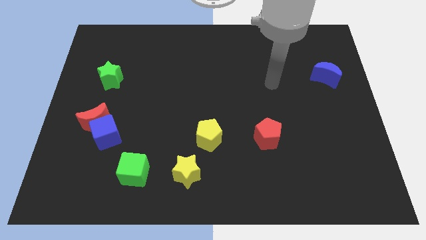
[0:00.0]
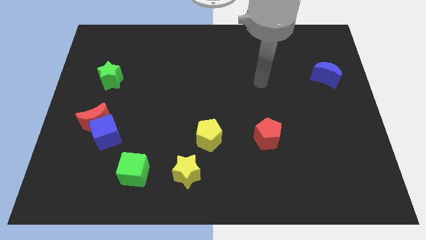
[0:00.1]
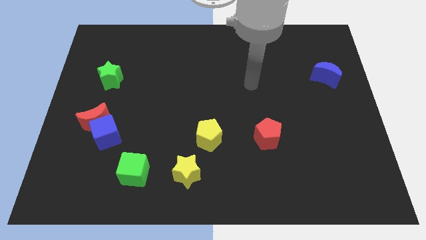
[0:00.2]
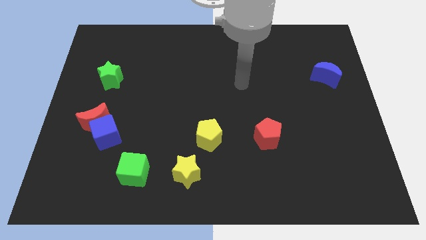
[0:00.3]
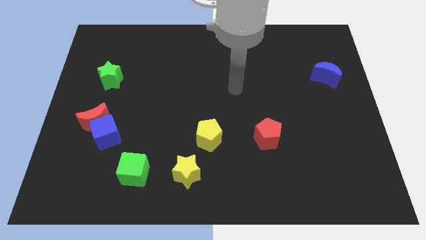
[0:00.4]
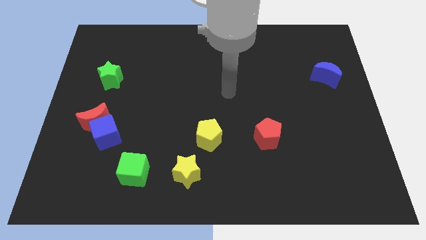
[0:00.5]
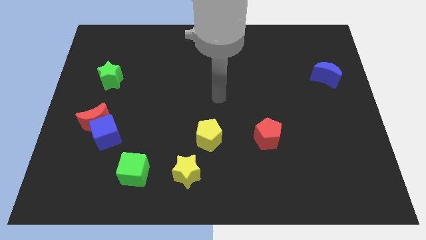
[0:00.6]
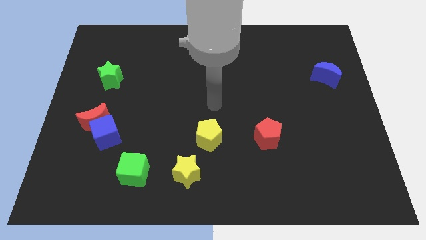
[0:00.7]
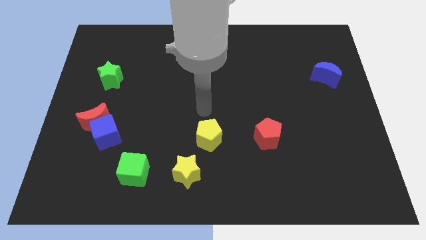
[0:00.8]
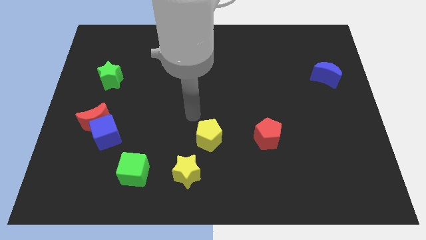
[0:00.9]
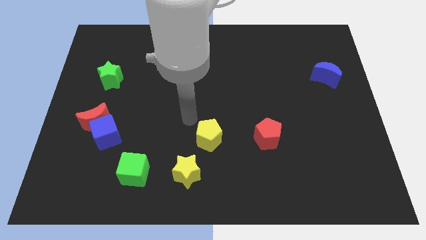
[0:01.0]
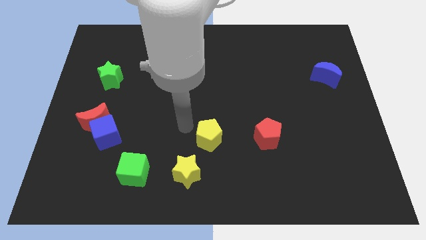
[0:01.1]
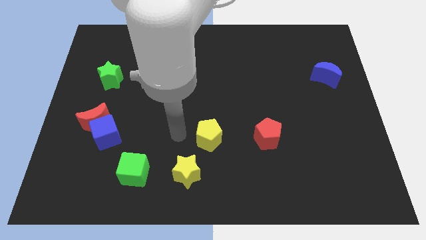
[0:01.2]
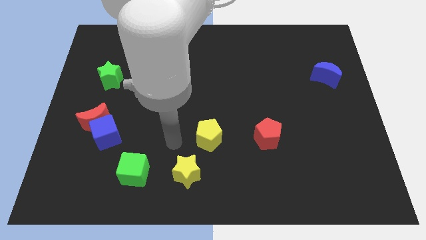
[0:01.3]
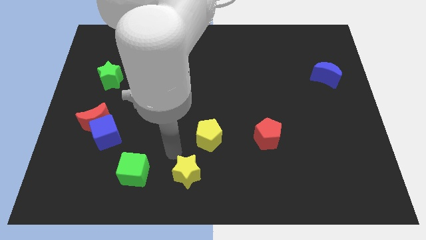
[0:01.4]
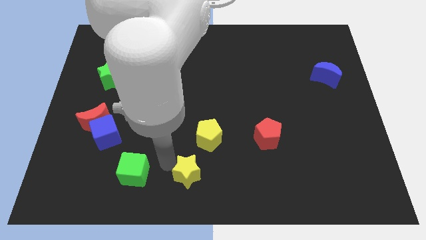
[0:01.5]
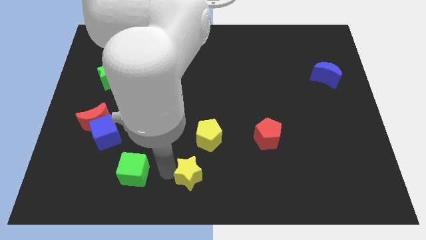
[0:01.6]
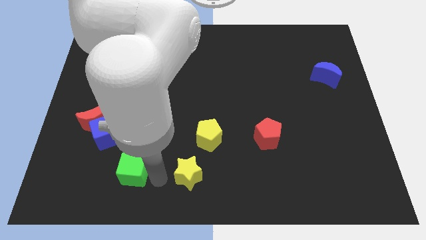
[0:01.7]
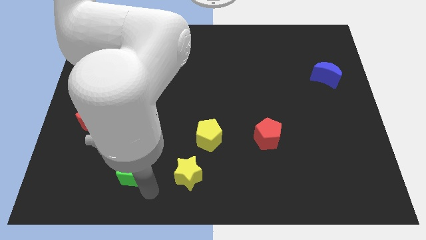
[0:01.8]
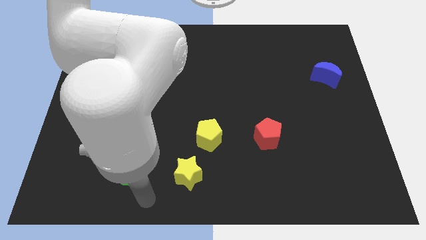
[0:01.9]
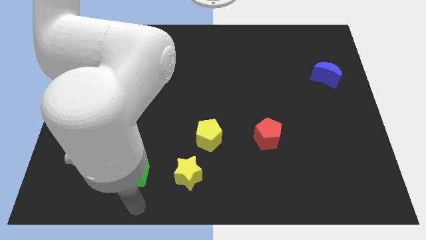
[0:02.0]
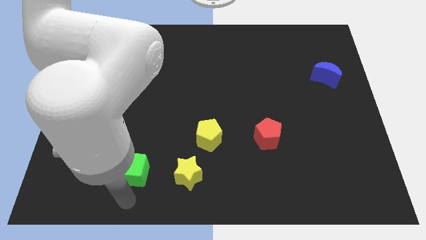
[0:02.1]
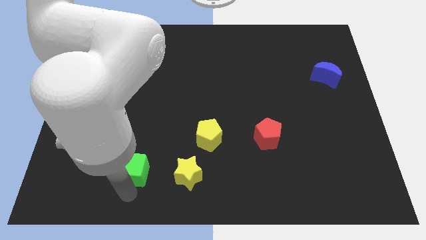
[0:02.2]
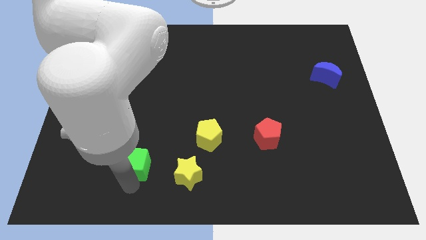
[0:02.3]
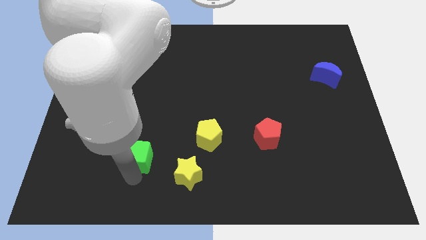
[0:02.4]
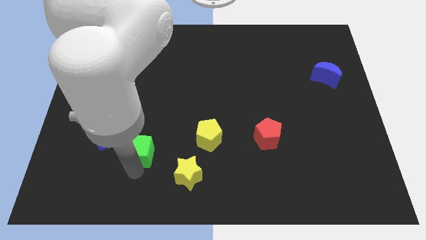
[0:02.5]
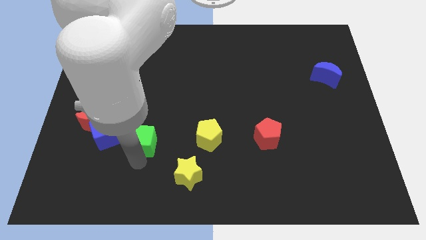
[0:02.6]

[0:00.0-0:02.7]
push the green cube up a bit

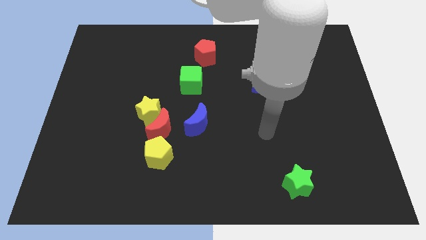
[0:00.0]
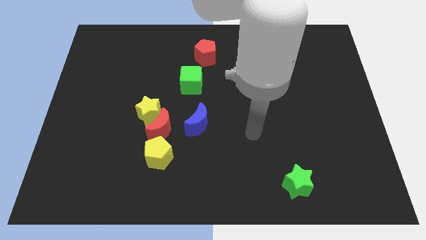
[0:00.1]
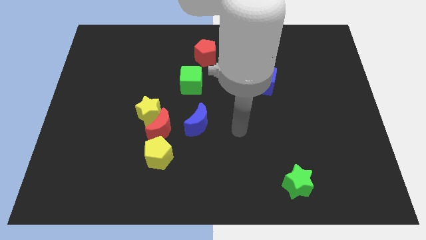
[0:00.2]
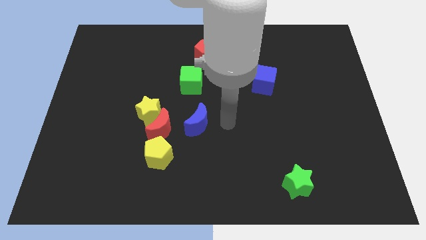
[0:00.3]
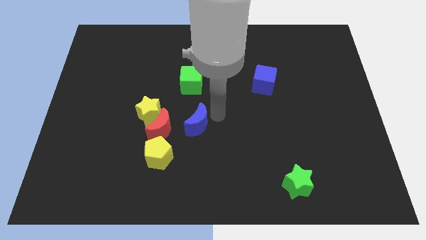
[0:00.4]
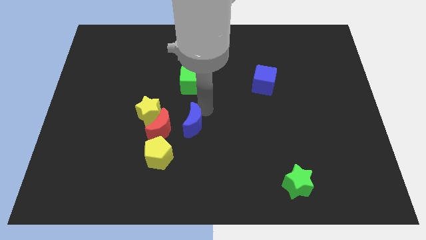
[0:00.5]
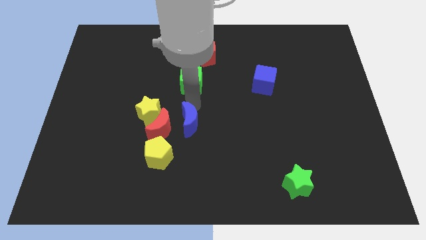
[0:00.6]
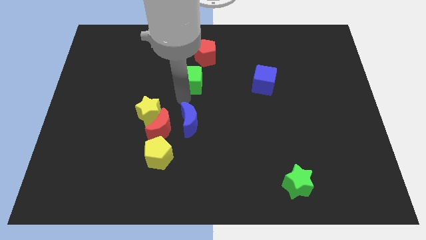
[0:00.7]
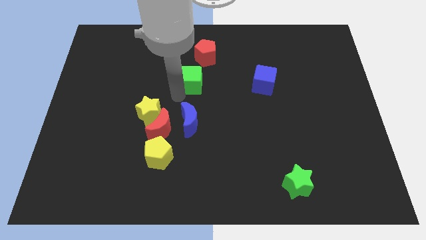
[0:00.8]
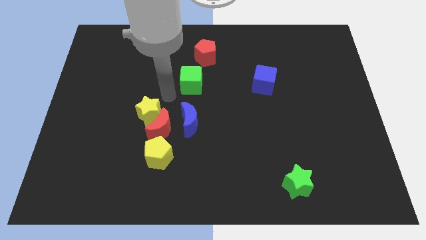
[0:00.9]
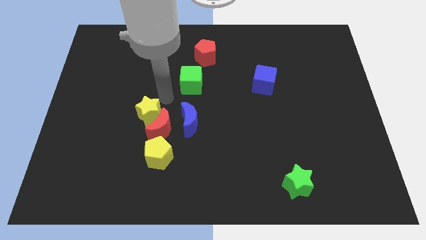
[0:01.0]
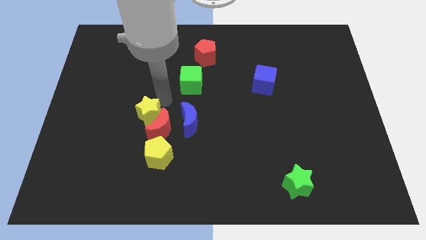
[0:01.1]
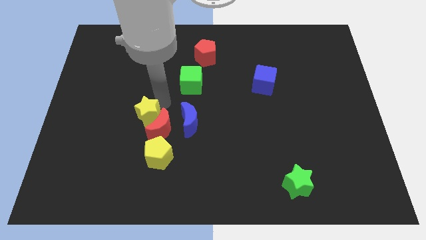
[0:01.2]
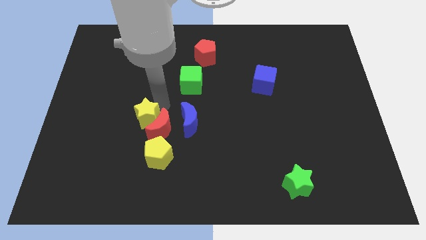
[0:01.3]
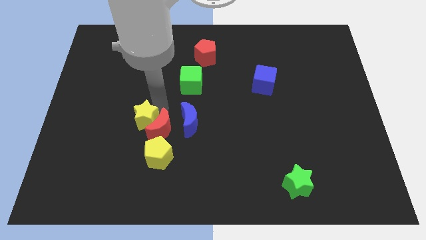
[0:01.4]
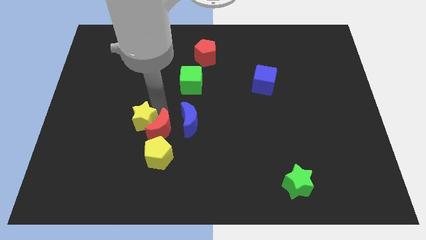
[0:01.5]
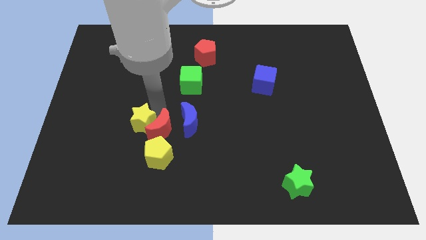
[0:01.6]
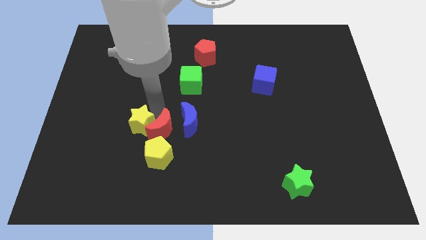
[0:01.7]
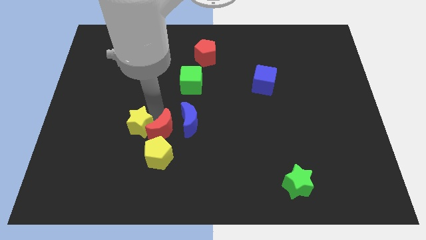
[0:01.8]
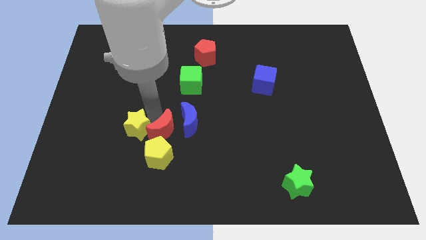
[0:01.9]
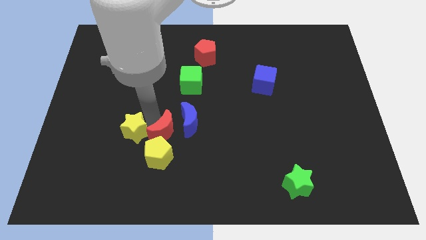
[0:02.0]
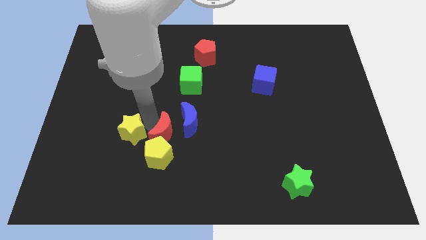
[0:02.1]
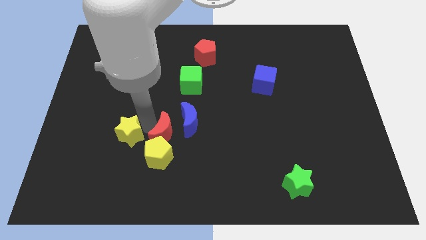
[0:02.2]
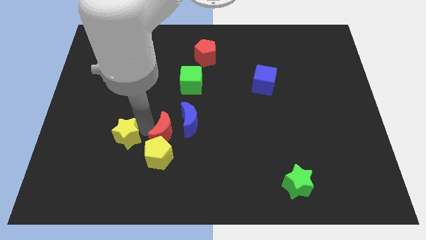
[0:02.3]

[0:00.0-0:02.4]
slightly slide the yellow star downwards and to the left diagonally

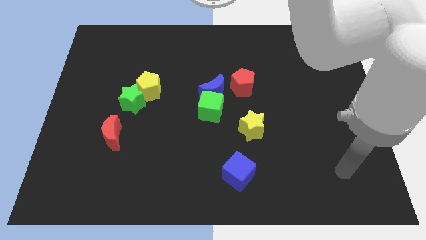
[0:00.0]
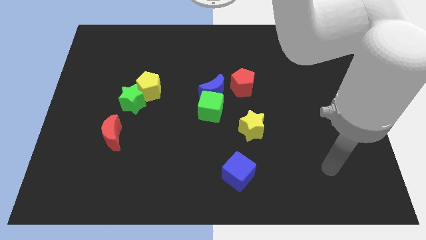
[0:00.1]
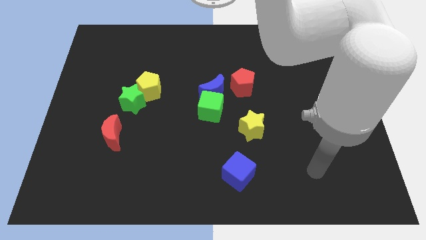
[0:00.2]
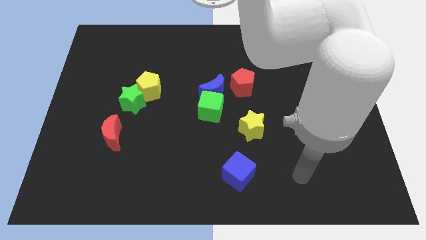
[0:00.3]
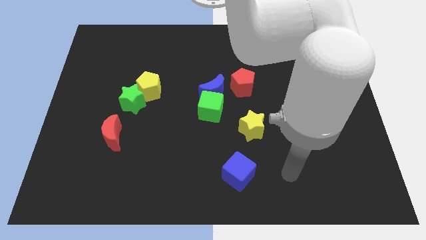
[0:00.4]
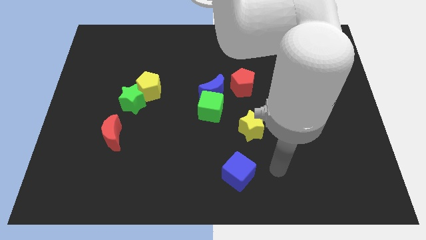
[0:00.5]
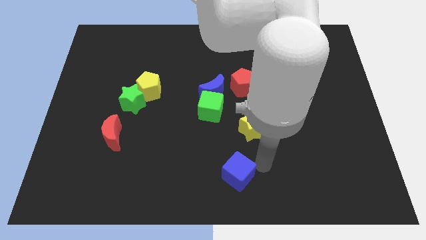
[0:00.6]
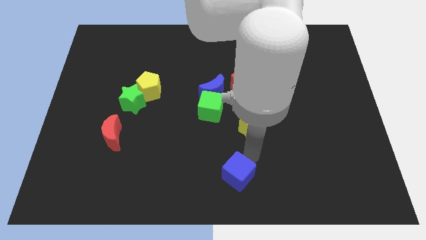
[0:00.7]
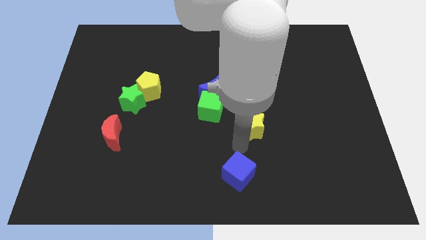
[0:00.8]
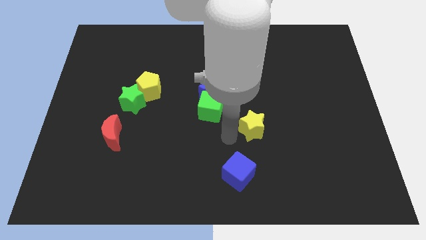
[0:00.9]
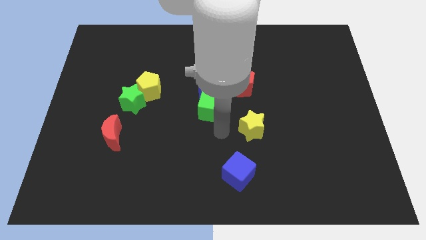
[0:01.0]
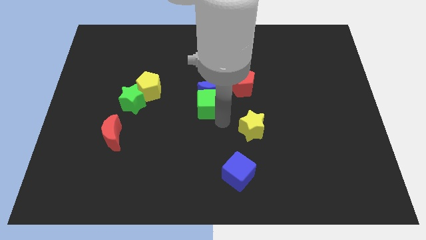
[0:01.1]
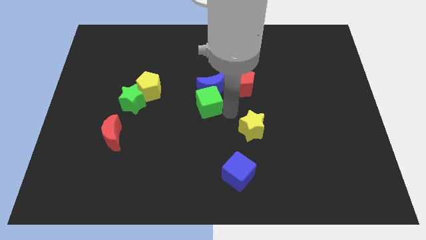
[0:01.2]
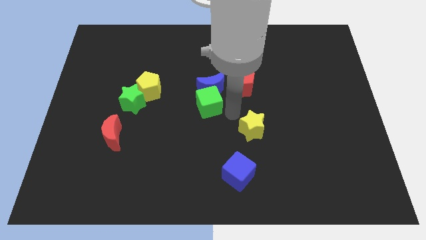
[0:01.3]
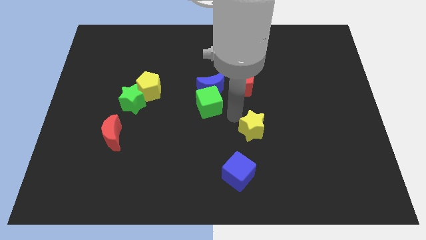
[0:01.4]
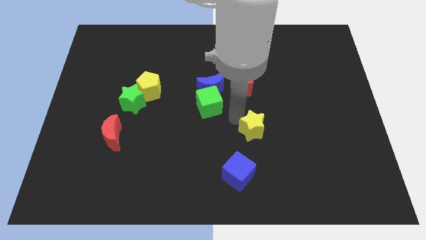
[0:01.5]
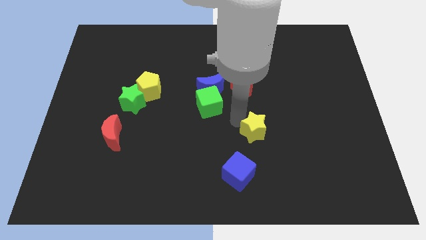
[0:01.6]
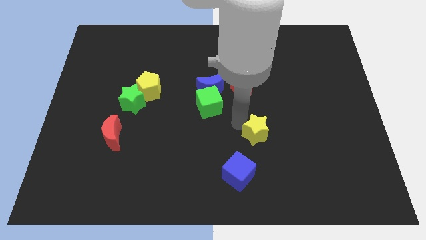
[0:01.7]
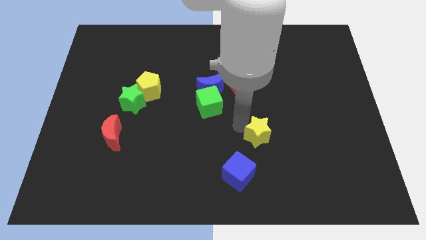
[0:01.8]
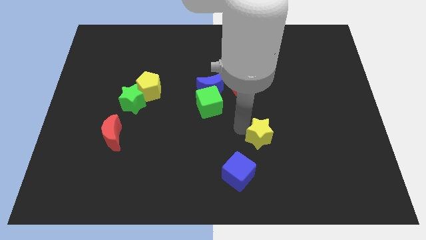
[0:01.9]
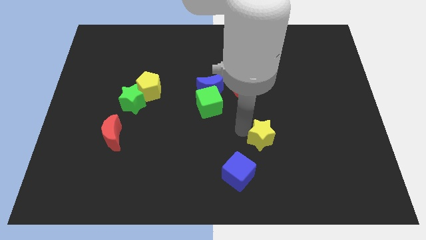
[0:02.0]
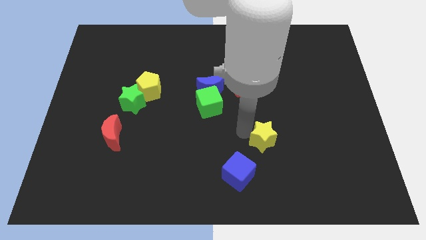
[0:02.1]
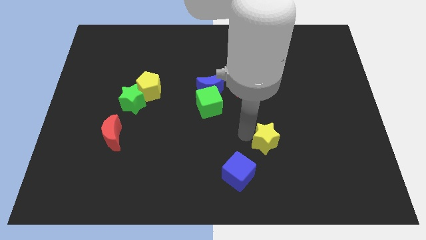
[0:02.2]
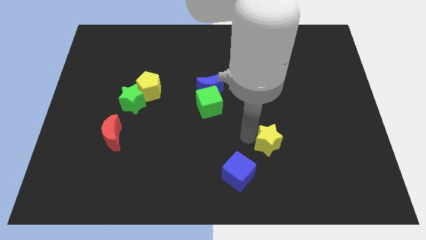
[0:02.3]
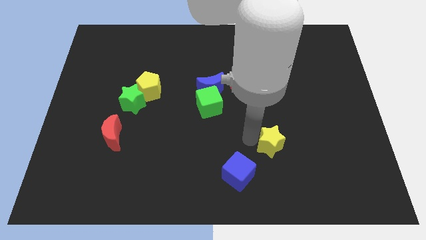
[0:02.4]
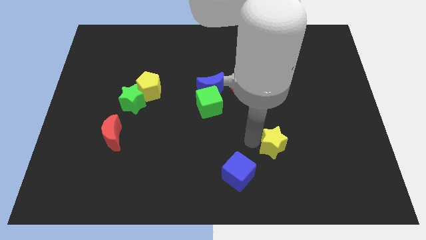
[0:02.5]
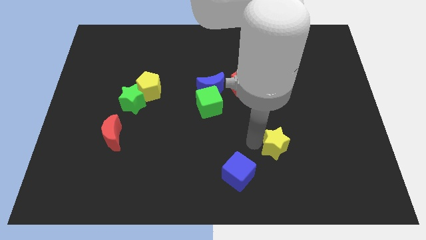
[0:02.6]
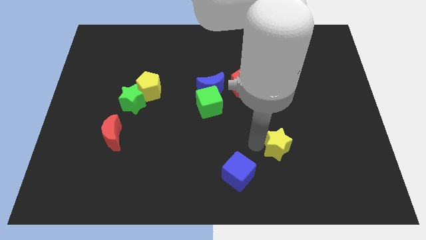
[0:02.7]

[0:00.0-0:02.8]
slightly push the yellow star diagonally down and to the right

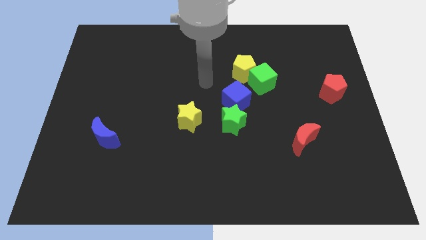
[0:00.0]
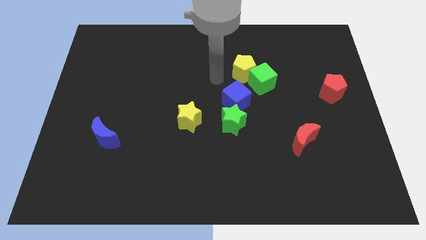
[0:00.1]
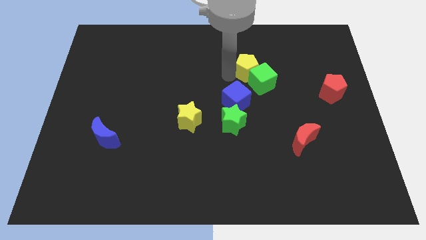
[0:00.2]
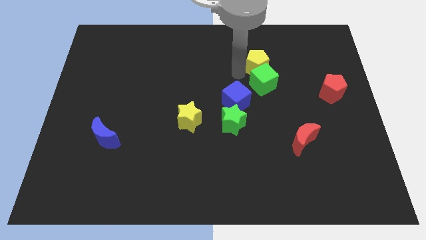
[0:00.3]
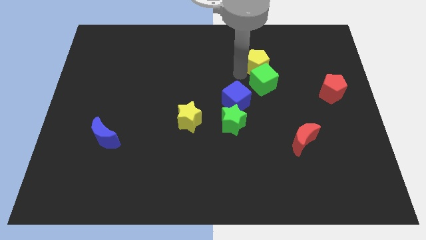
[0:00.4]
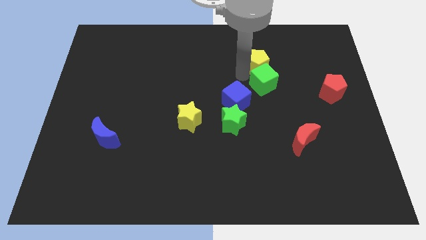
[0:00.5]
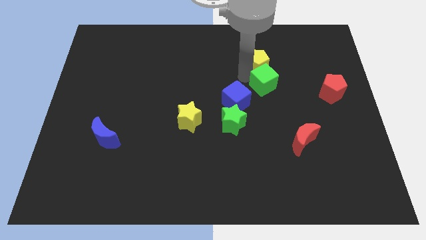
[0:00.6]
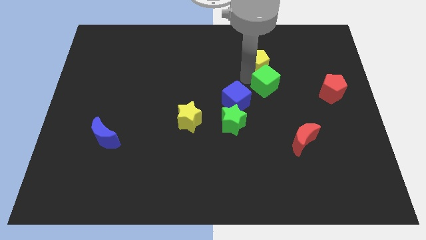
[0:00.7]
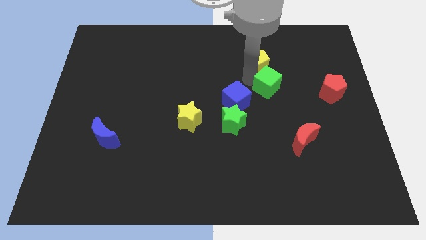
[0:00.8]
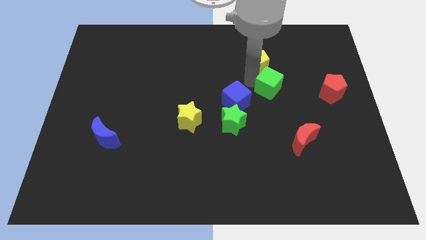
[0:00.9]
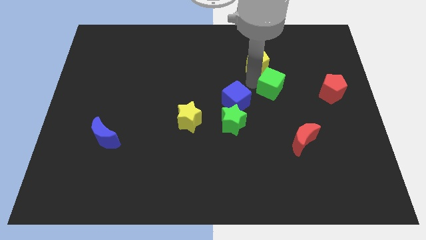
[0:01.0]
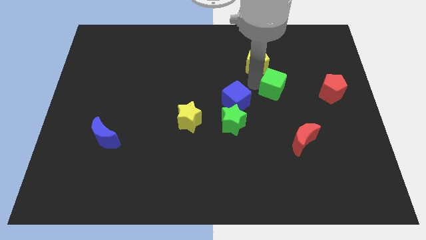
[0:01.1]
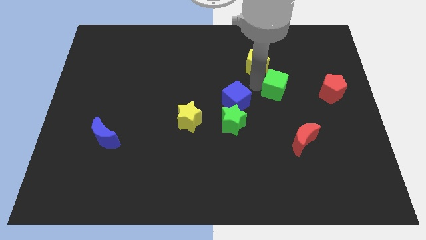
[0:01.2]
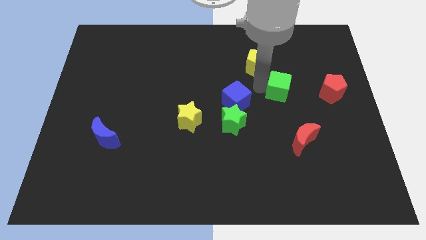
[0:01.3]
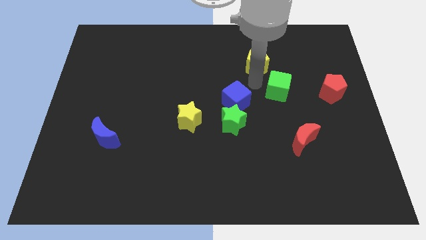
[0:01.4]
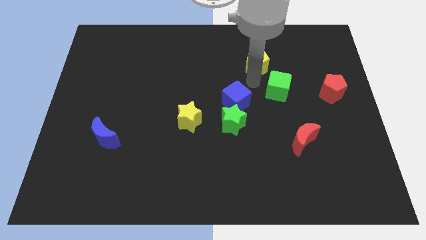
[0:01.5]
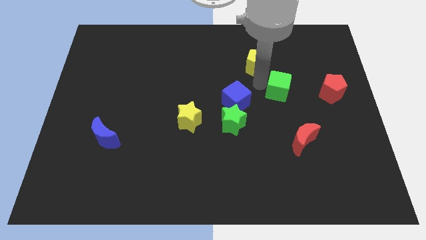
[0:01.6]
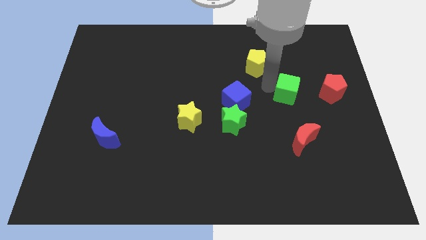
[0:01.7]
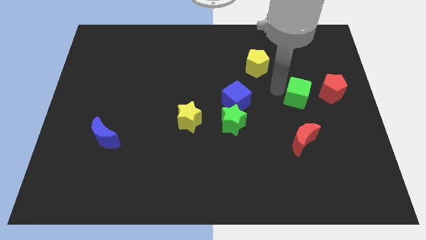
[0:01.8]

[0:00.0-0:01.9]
slide the green cube downwards and right a little
